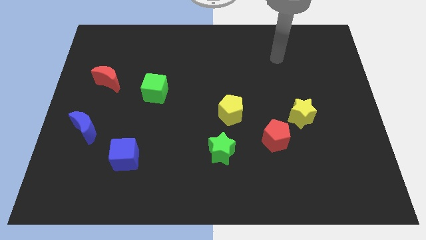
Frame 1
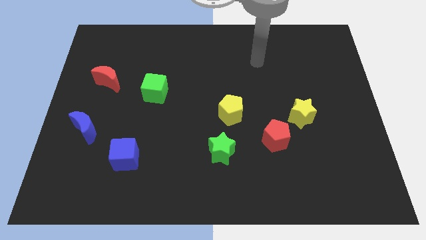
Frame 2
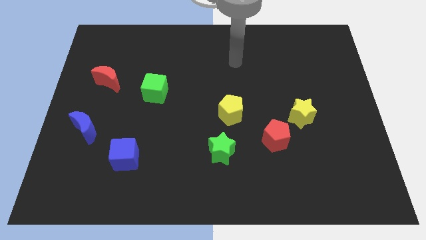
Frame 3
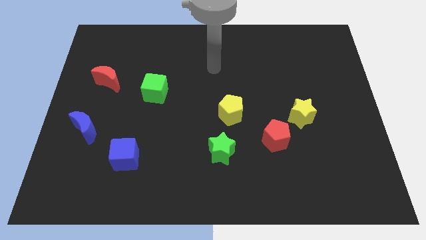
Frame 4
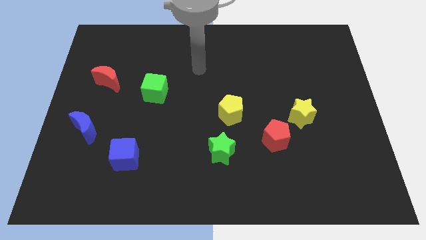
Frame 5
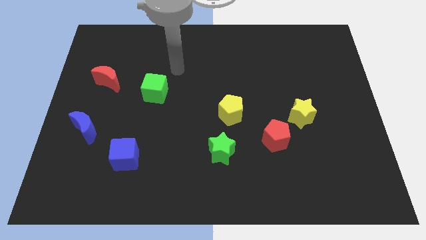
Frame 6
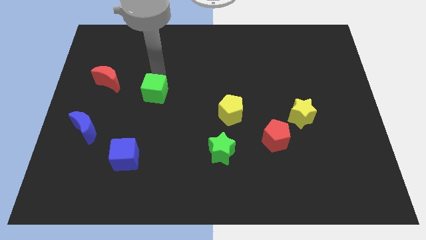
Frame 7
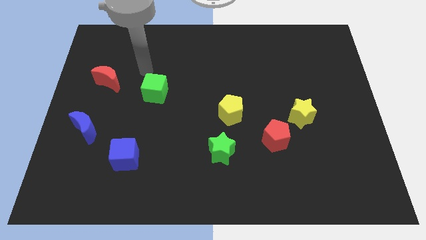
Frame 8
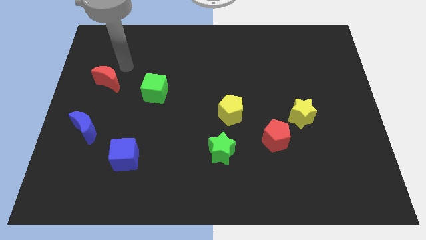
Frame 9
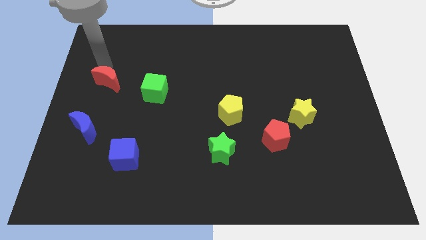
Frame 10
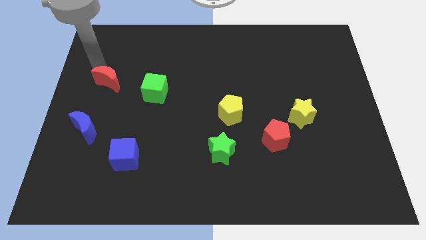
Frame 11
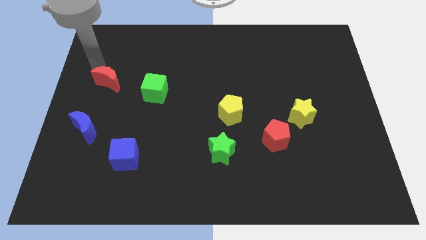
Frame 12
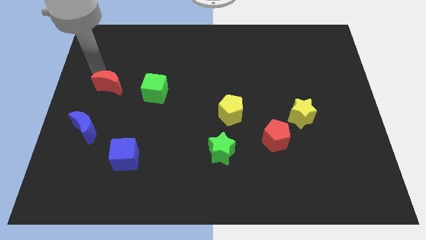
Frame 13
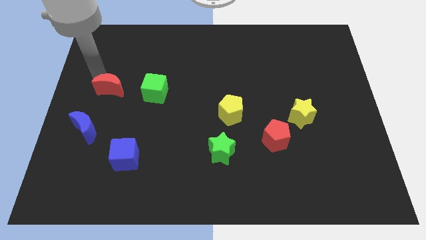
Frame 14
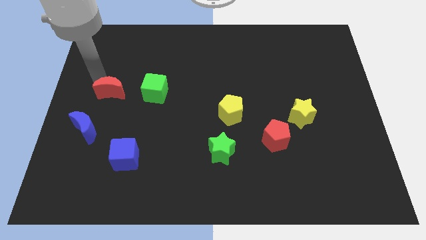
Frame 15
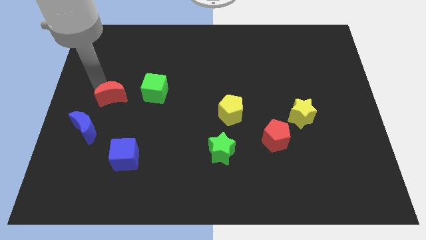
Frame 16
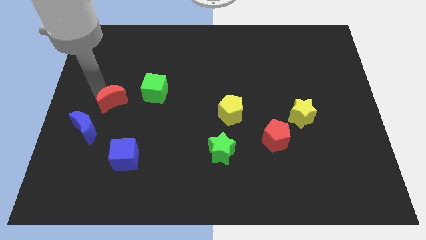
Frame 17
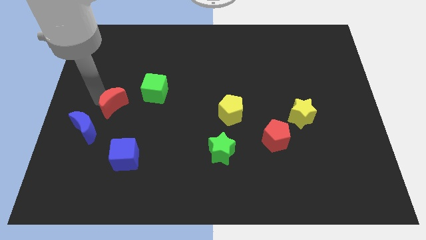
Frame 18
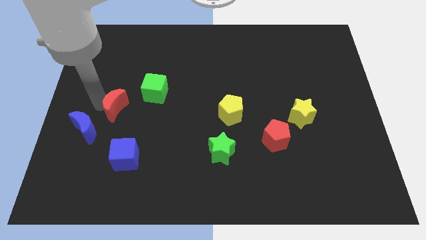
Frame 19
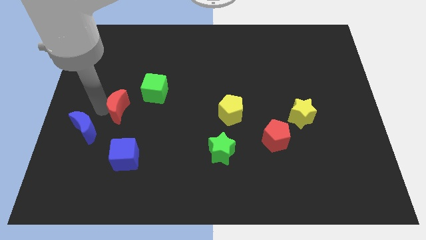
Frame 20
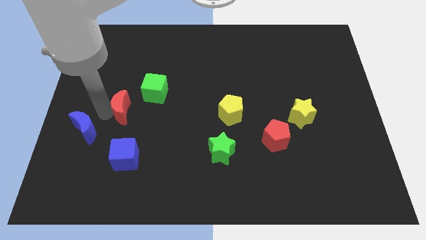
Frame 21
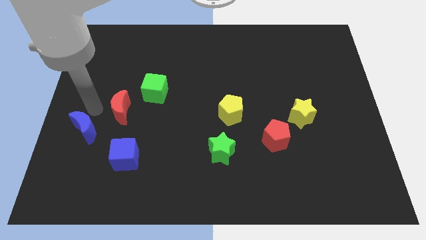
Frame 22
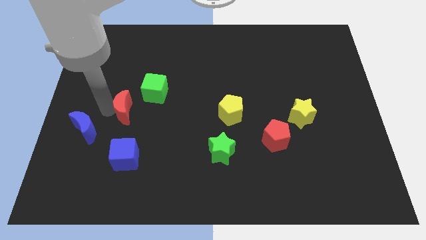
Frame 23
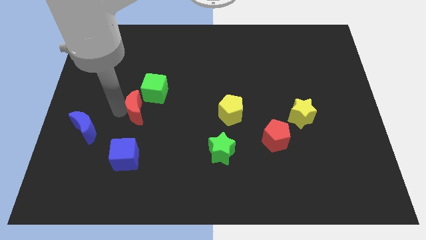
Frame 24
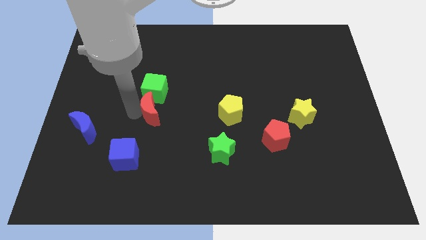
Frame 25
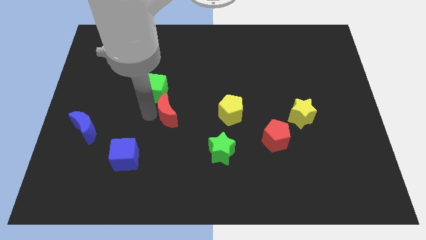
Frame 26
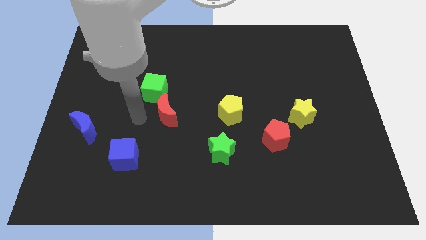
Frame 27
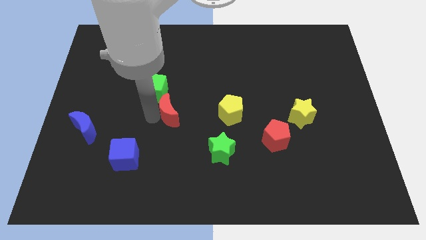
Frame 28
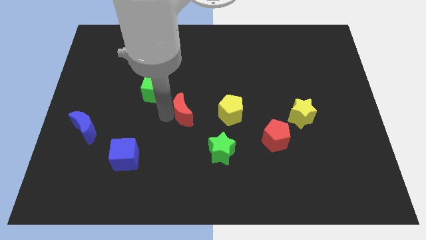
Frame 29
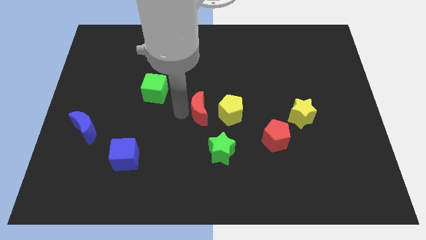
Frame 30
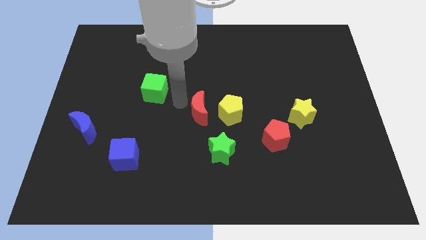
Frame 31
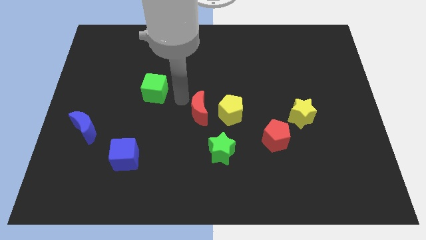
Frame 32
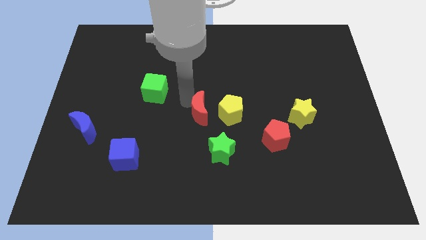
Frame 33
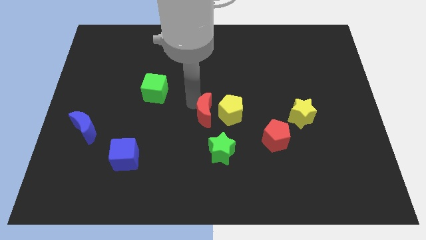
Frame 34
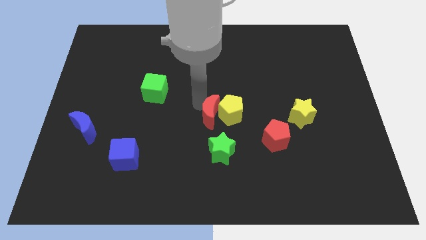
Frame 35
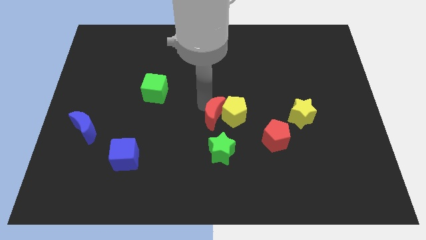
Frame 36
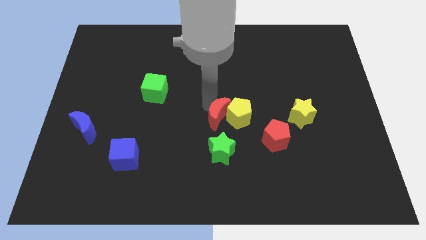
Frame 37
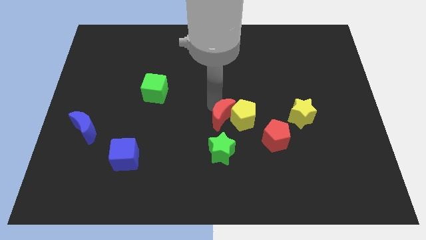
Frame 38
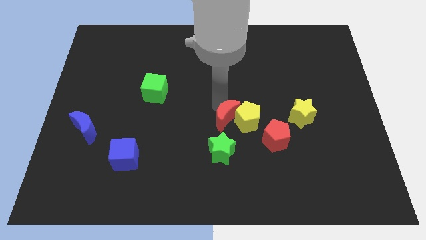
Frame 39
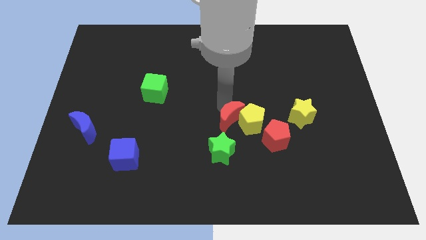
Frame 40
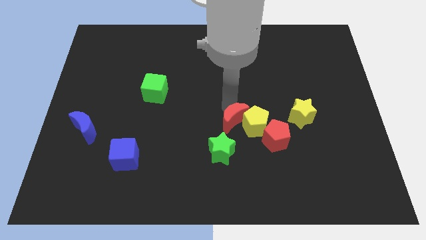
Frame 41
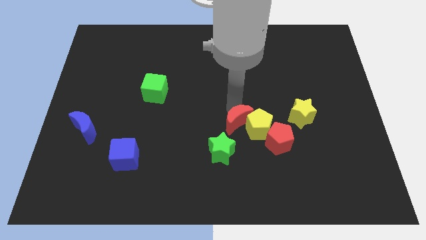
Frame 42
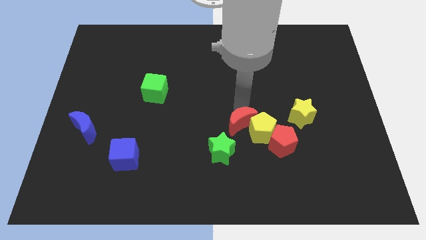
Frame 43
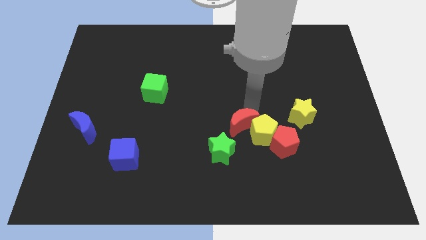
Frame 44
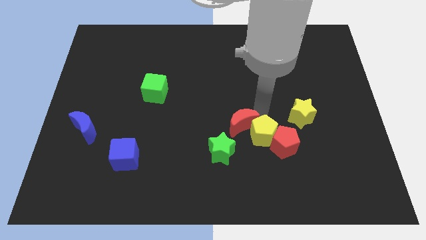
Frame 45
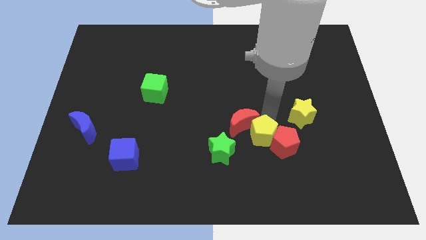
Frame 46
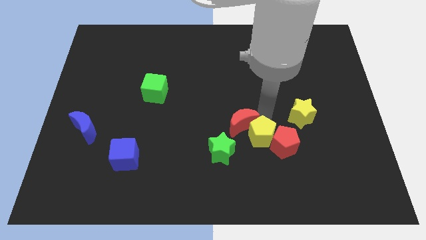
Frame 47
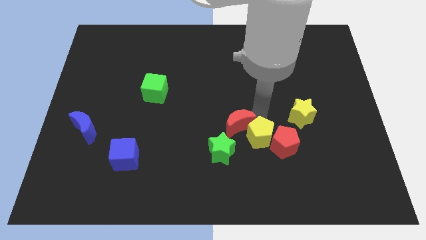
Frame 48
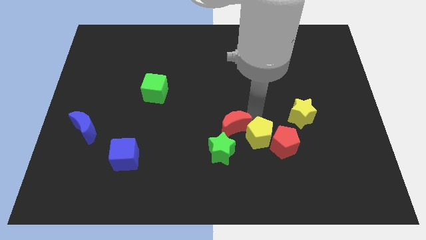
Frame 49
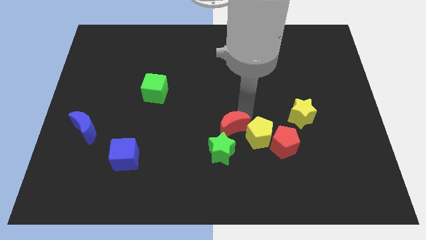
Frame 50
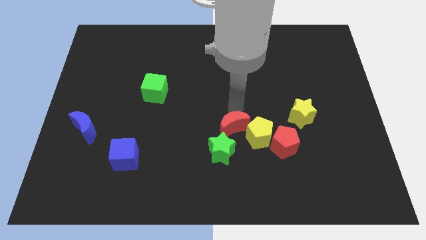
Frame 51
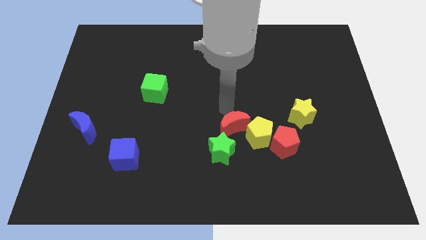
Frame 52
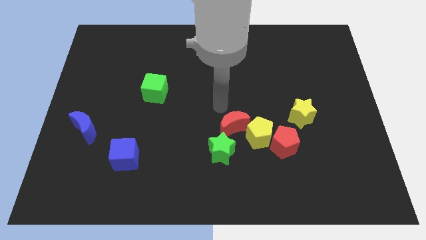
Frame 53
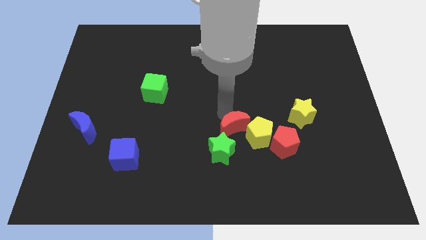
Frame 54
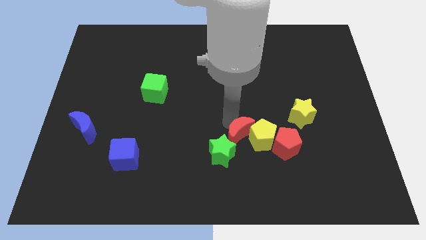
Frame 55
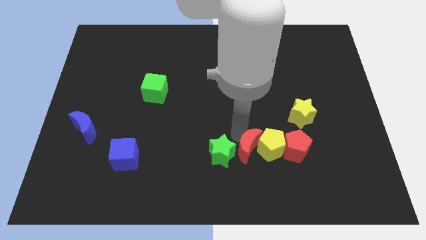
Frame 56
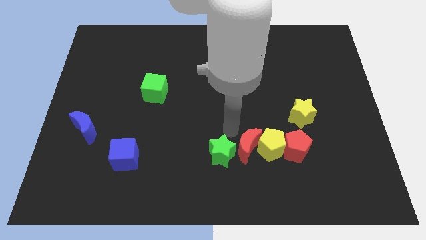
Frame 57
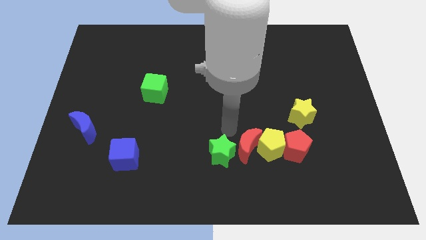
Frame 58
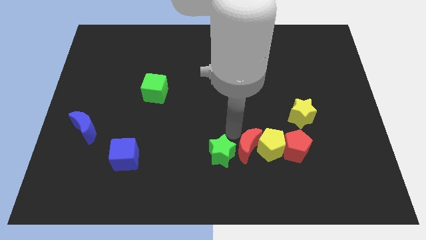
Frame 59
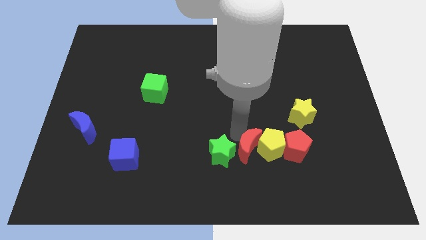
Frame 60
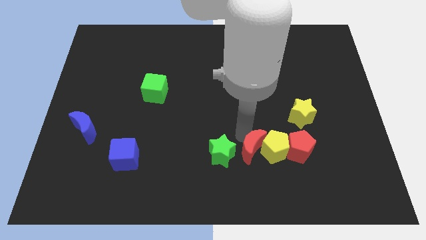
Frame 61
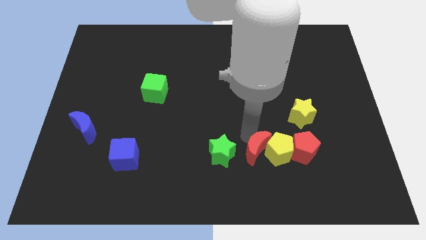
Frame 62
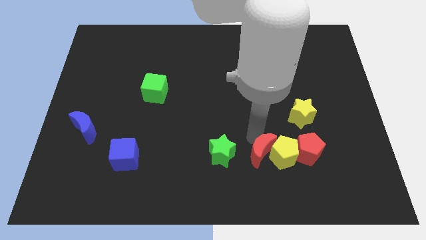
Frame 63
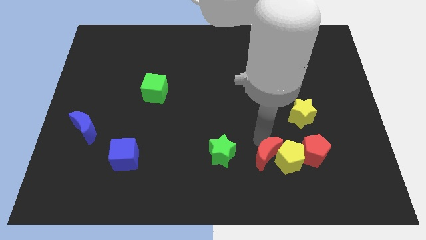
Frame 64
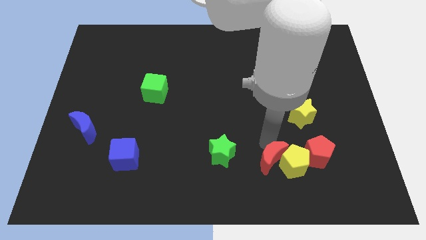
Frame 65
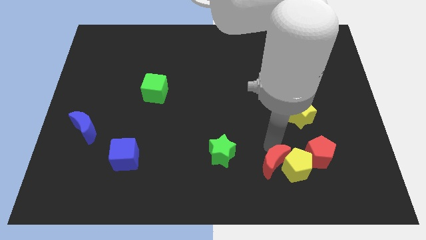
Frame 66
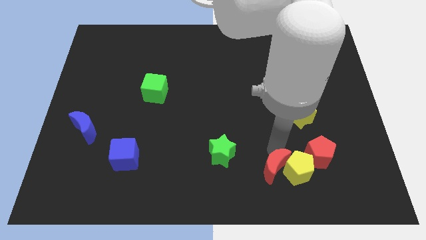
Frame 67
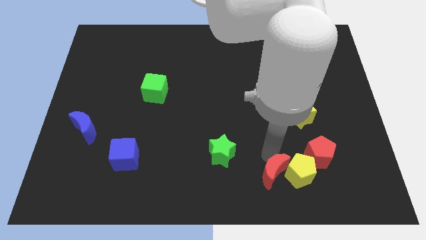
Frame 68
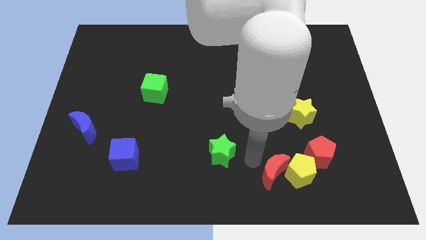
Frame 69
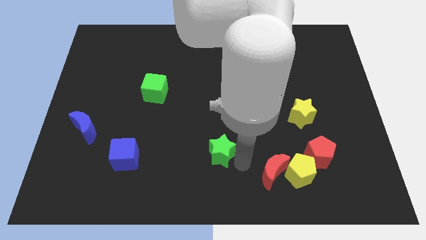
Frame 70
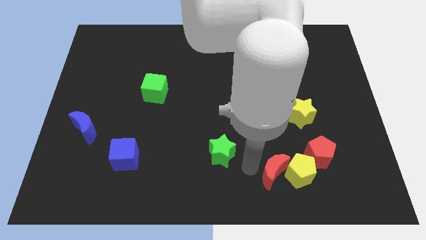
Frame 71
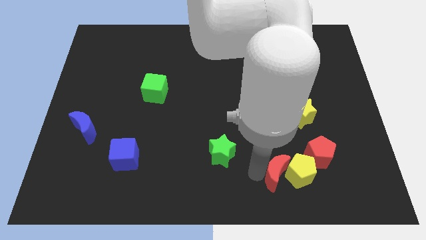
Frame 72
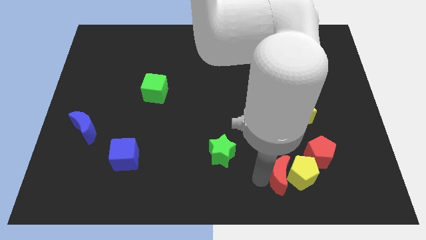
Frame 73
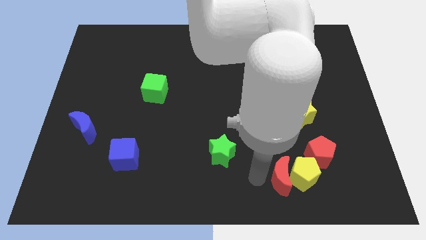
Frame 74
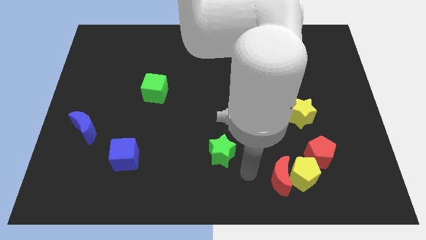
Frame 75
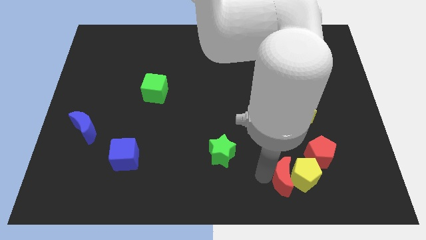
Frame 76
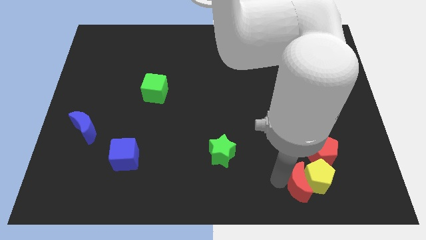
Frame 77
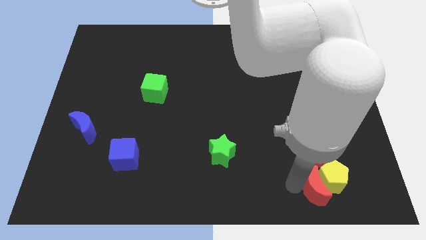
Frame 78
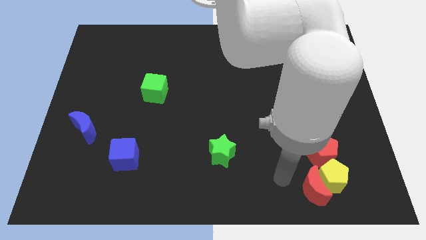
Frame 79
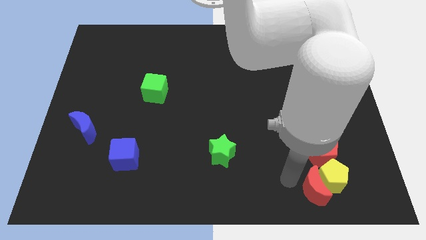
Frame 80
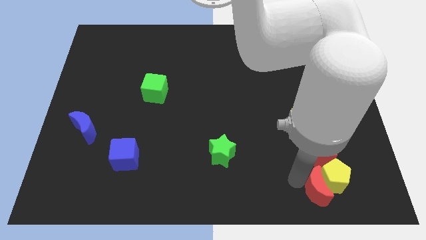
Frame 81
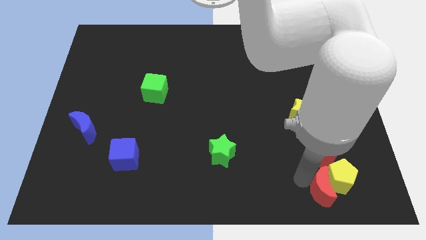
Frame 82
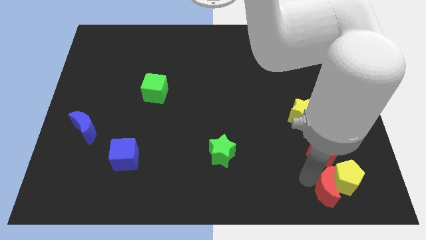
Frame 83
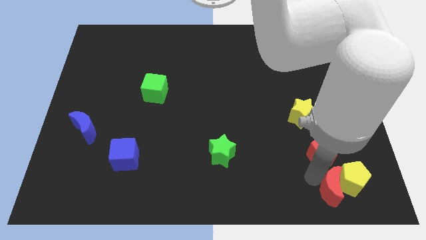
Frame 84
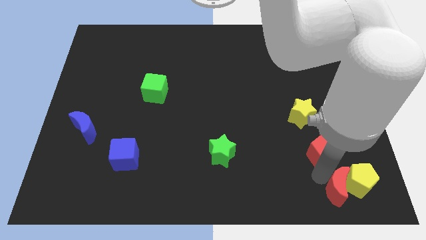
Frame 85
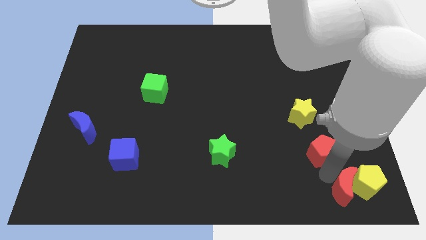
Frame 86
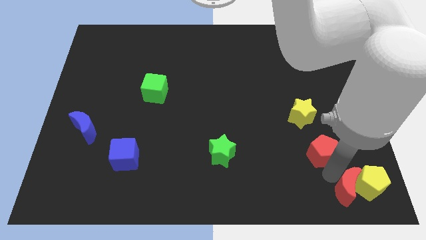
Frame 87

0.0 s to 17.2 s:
slide the red moon to the bottom right
